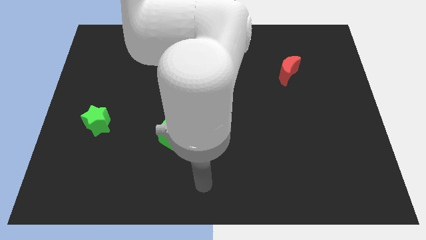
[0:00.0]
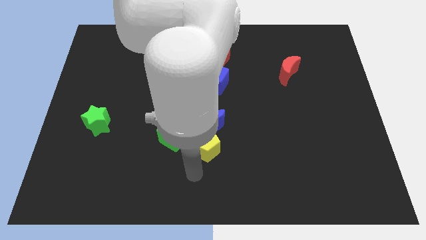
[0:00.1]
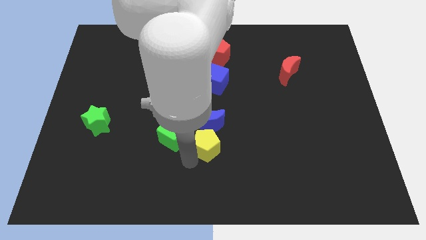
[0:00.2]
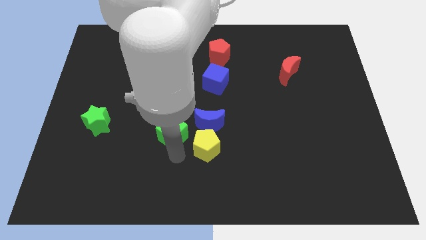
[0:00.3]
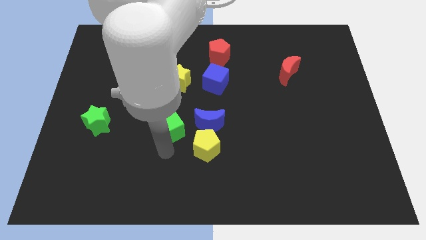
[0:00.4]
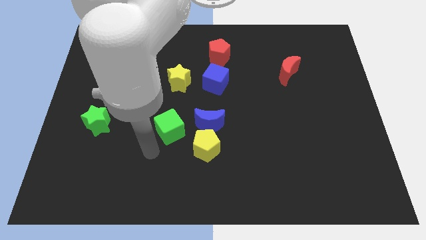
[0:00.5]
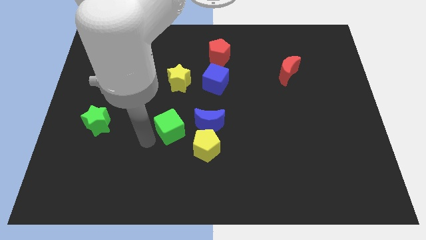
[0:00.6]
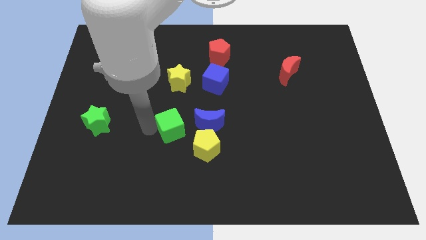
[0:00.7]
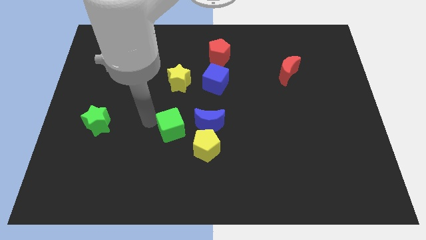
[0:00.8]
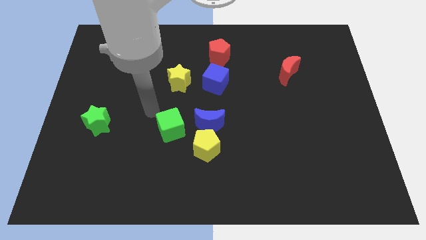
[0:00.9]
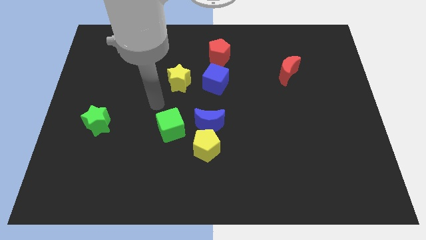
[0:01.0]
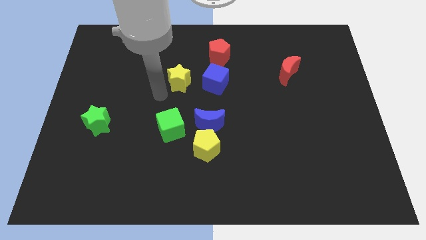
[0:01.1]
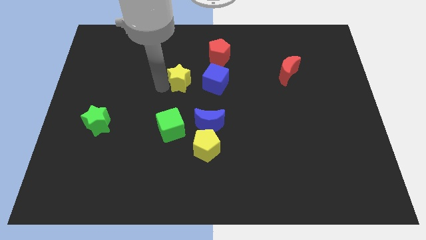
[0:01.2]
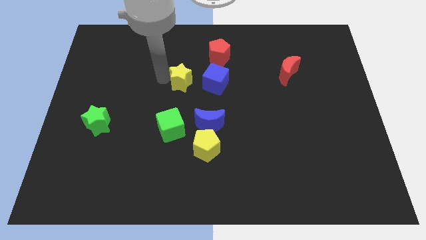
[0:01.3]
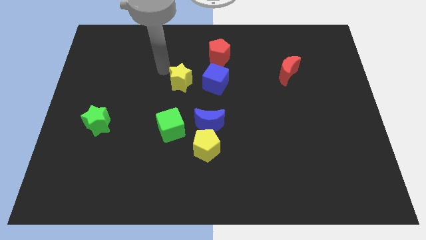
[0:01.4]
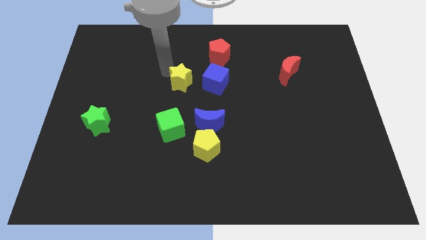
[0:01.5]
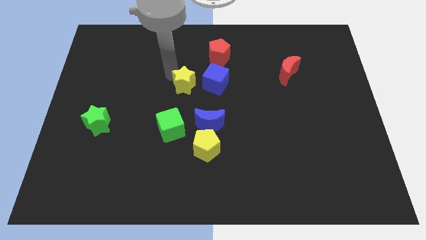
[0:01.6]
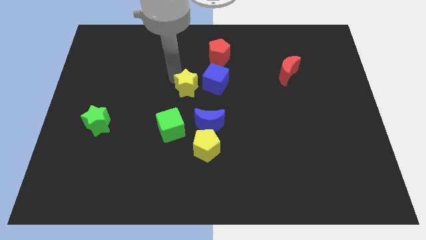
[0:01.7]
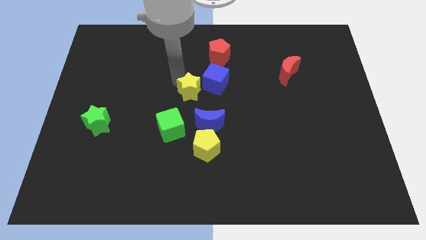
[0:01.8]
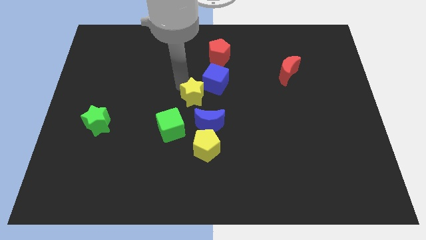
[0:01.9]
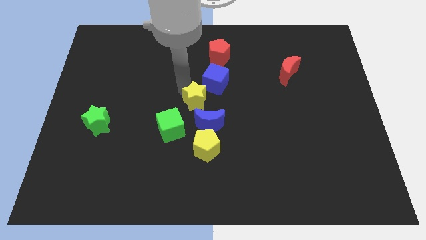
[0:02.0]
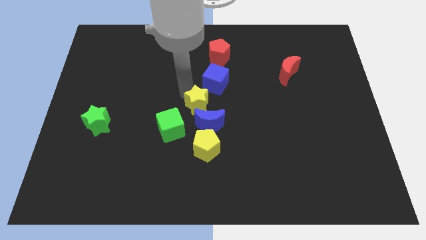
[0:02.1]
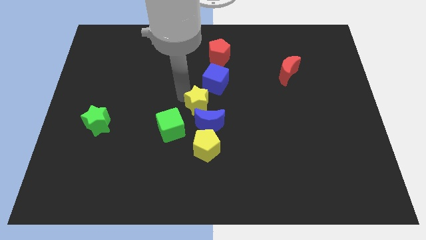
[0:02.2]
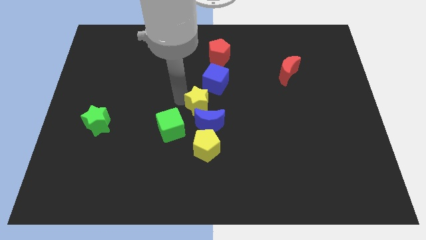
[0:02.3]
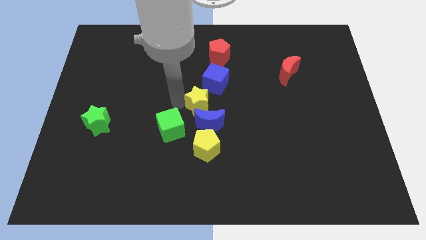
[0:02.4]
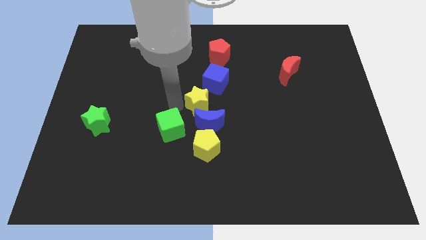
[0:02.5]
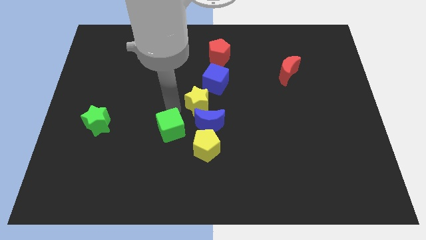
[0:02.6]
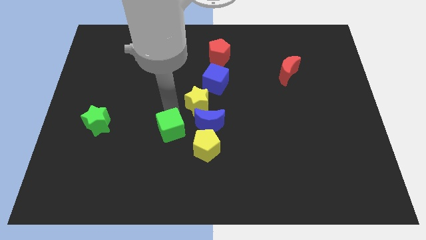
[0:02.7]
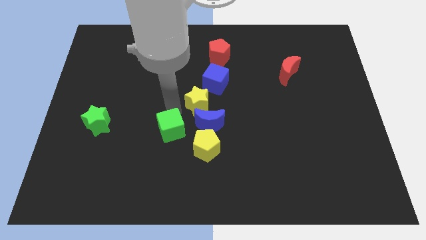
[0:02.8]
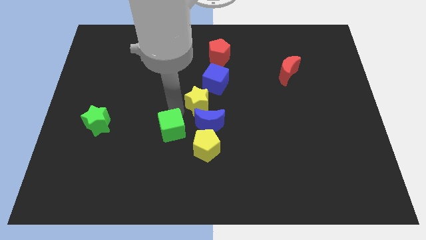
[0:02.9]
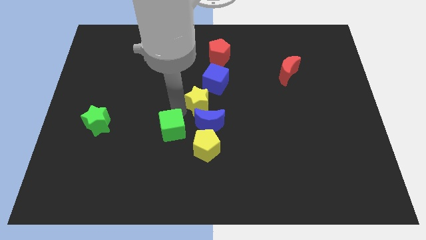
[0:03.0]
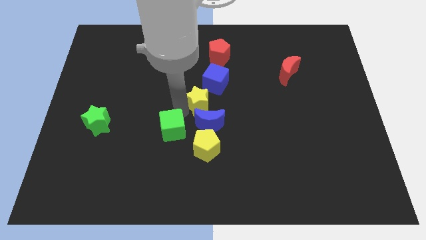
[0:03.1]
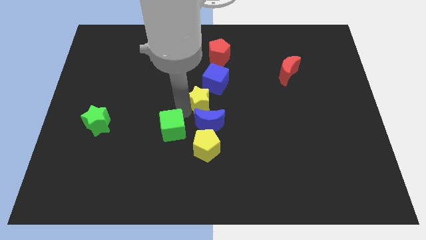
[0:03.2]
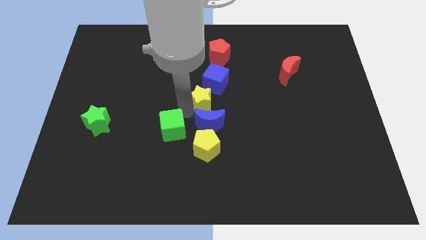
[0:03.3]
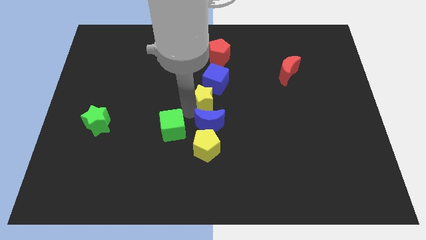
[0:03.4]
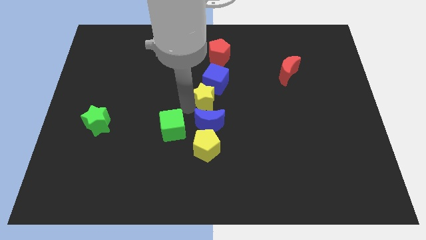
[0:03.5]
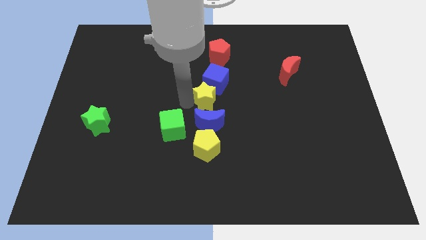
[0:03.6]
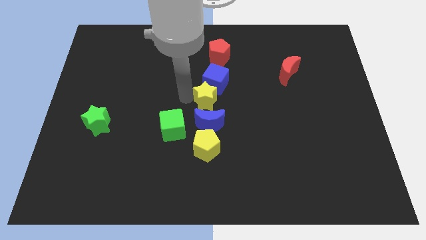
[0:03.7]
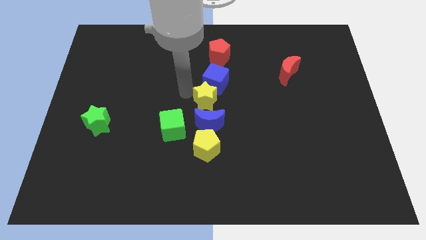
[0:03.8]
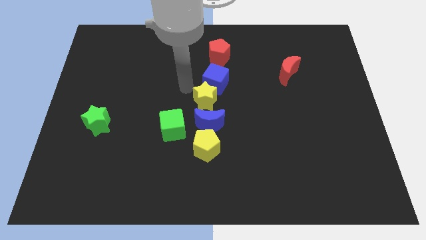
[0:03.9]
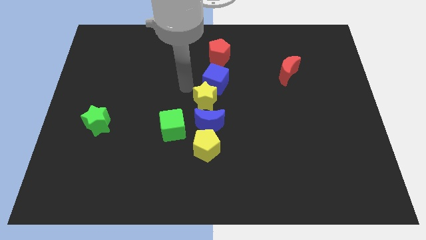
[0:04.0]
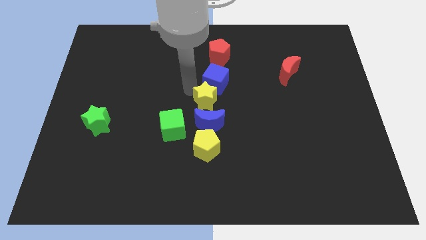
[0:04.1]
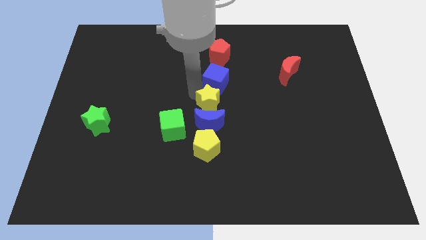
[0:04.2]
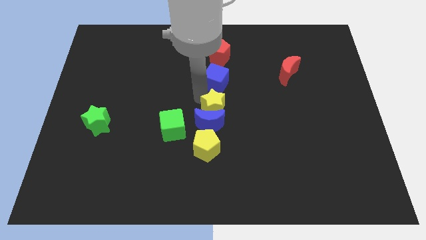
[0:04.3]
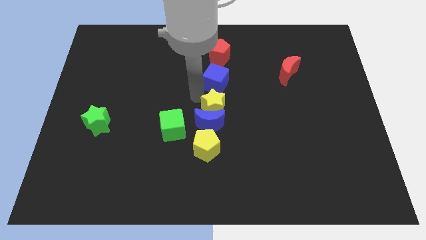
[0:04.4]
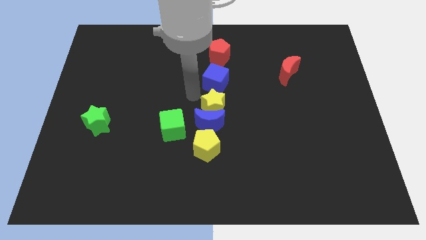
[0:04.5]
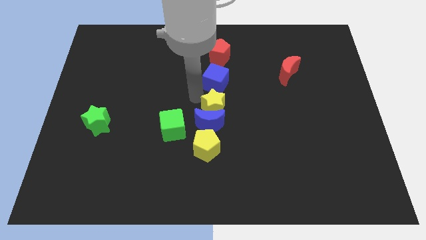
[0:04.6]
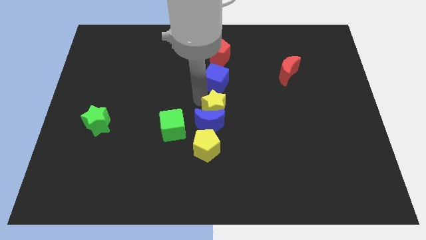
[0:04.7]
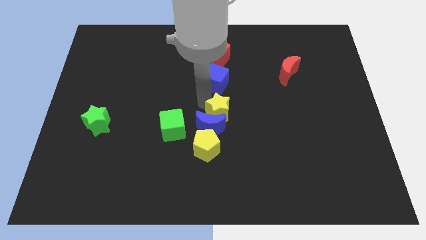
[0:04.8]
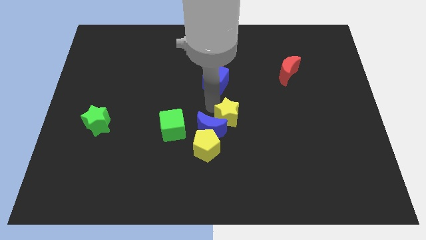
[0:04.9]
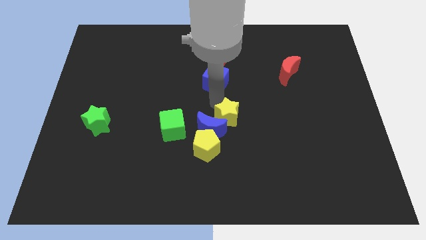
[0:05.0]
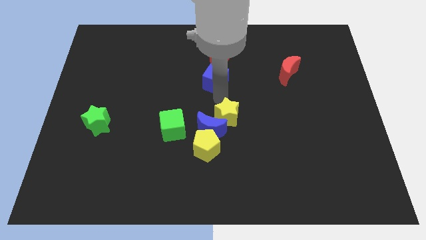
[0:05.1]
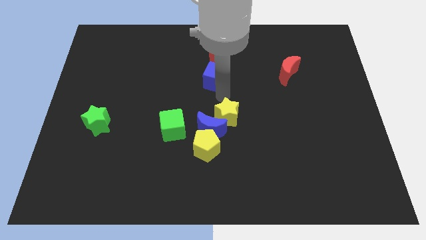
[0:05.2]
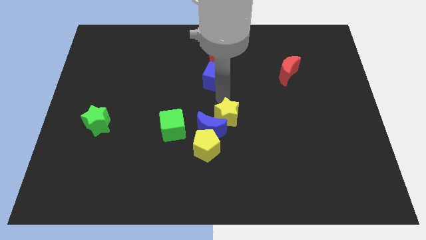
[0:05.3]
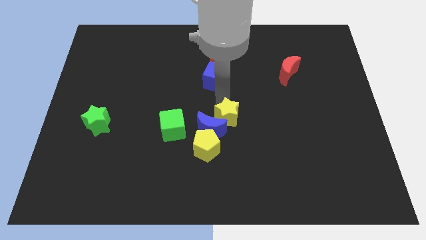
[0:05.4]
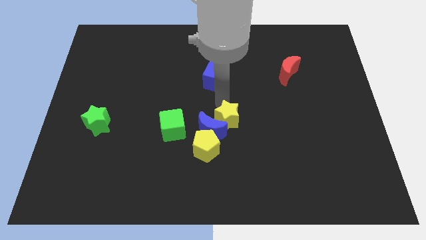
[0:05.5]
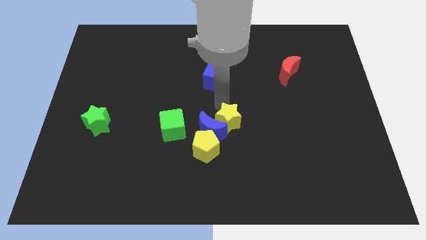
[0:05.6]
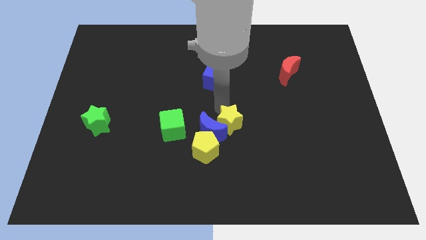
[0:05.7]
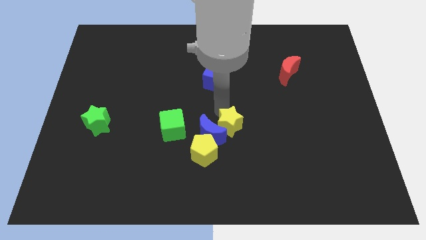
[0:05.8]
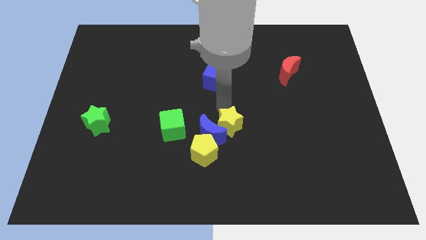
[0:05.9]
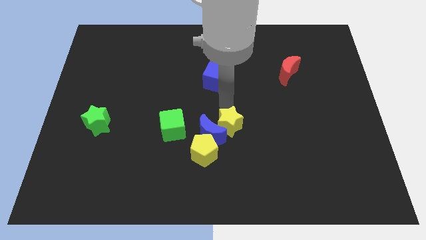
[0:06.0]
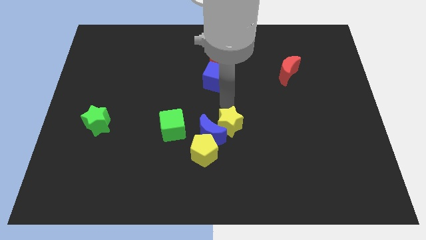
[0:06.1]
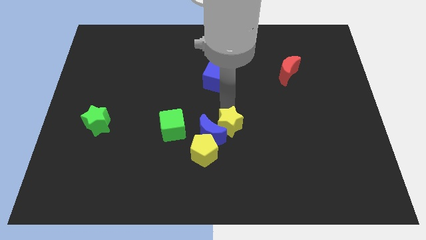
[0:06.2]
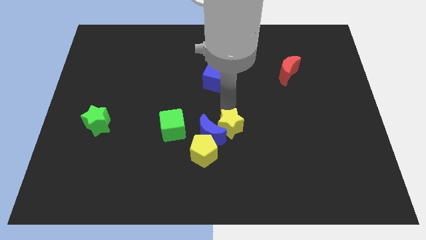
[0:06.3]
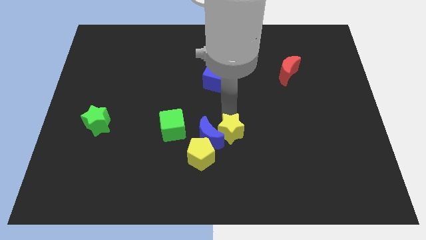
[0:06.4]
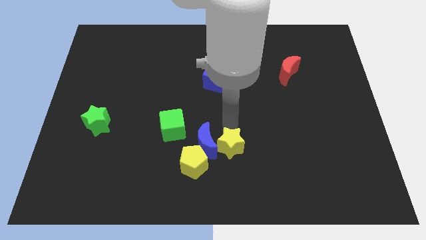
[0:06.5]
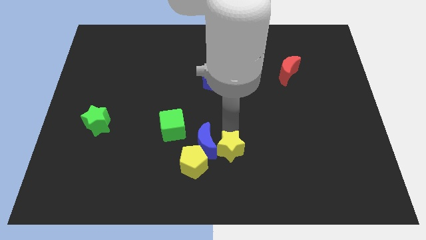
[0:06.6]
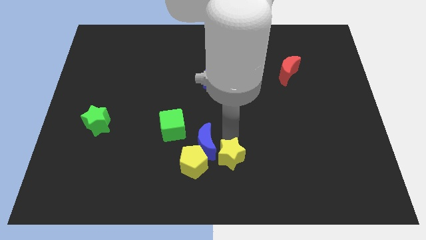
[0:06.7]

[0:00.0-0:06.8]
put the yellow star to the bottom side
